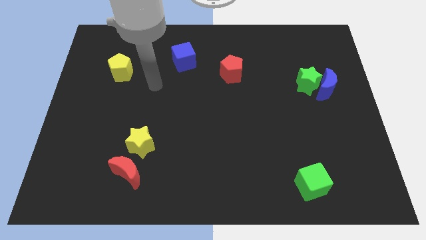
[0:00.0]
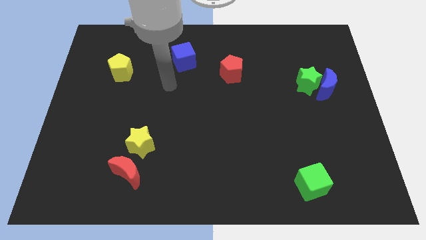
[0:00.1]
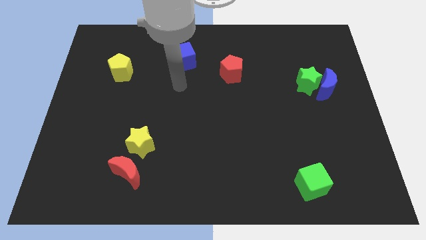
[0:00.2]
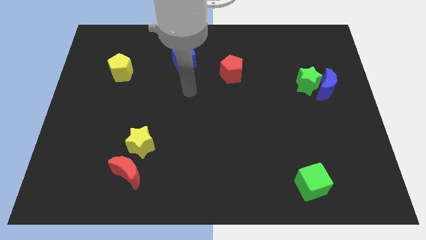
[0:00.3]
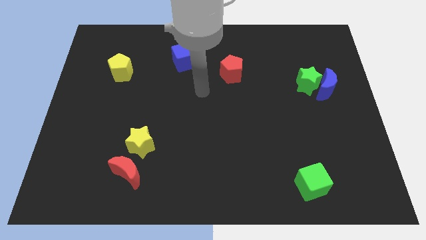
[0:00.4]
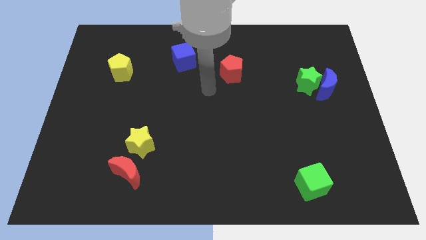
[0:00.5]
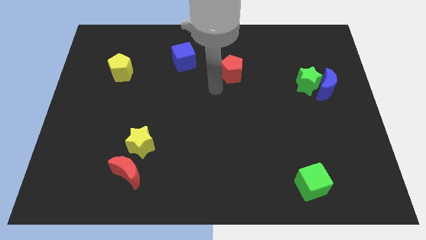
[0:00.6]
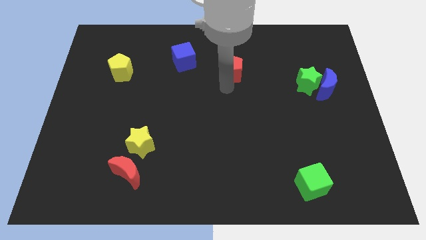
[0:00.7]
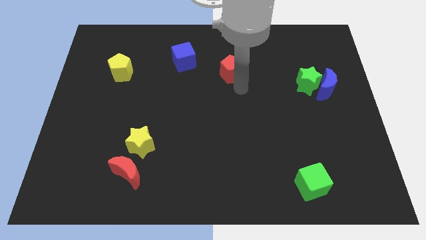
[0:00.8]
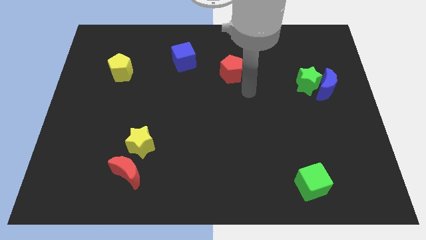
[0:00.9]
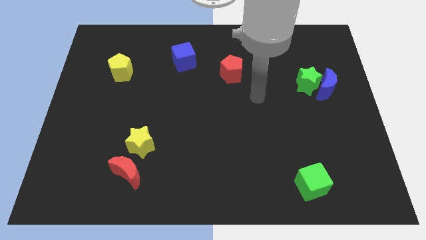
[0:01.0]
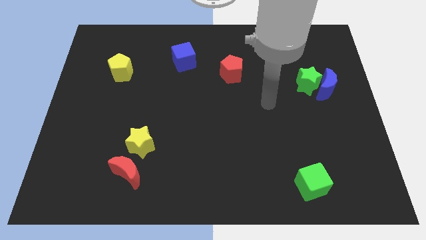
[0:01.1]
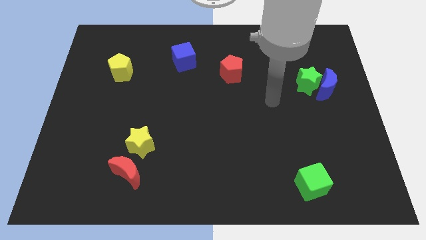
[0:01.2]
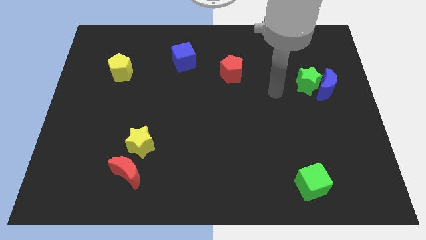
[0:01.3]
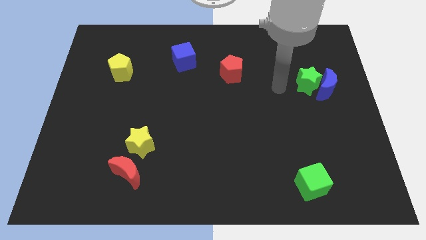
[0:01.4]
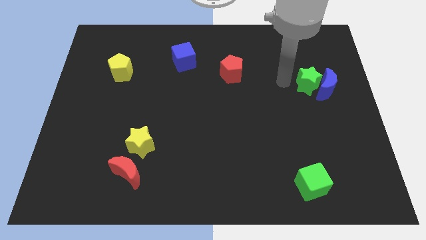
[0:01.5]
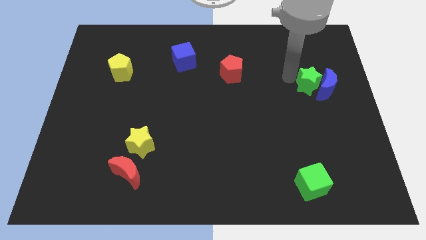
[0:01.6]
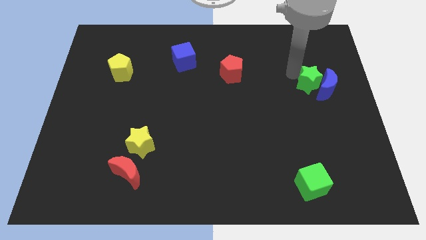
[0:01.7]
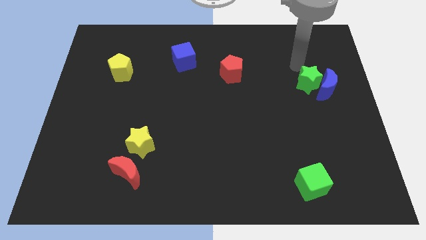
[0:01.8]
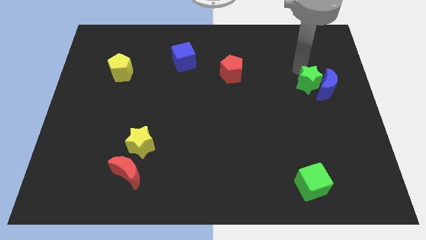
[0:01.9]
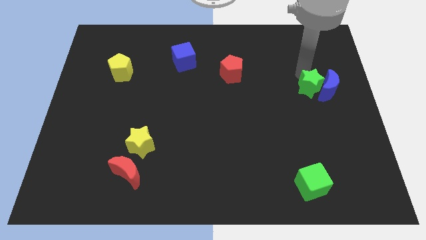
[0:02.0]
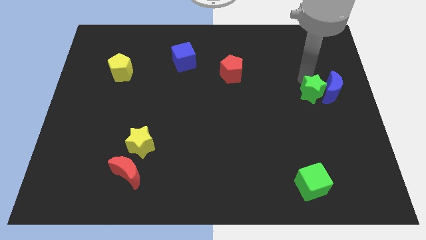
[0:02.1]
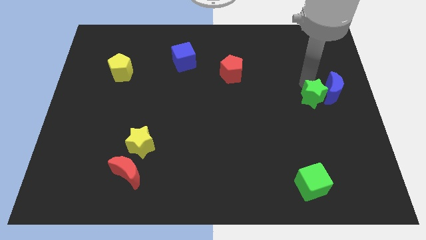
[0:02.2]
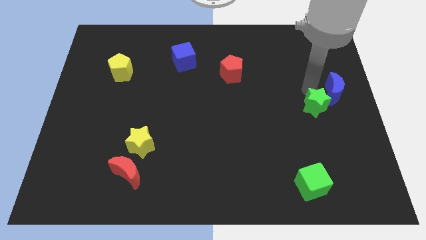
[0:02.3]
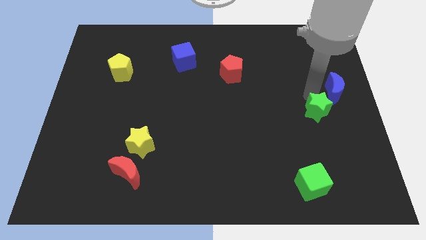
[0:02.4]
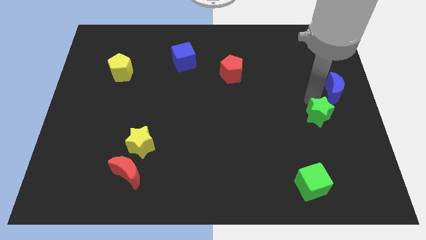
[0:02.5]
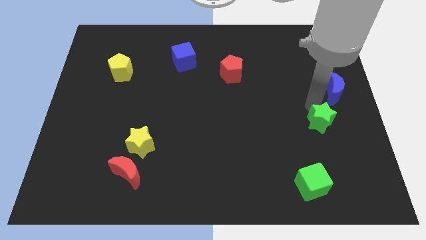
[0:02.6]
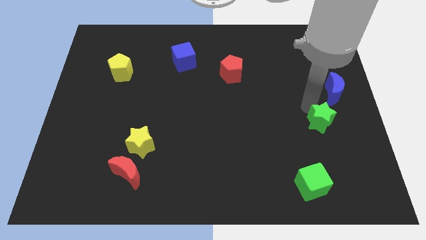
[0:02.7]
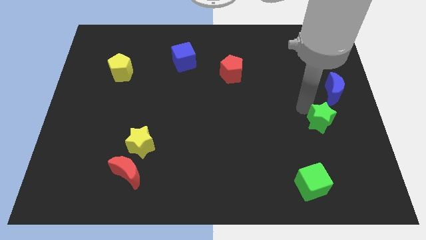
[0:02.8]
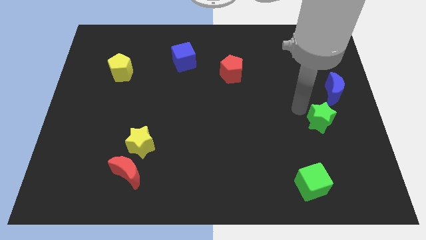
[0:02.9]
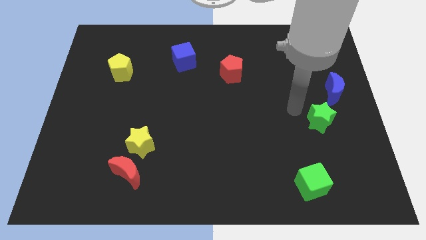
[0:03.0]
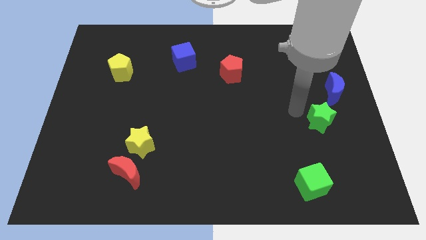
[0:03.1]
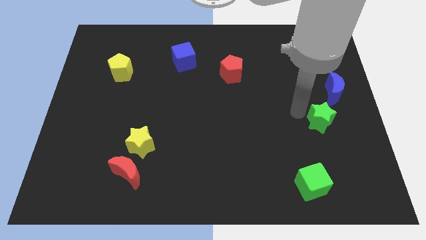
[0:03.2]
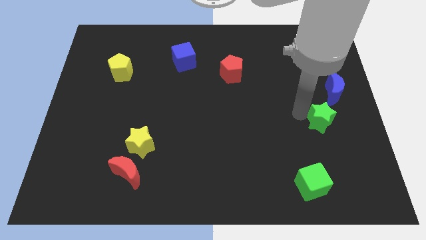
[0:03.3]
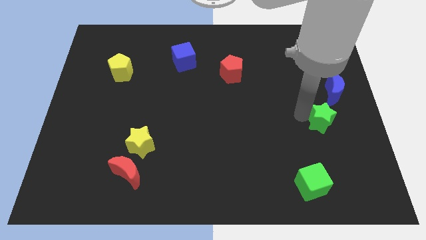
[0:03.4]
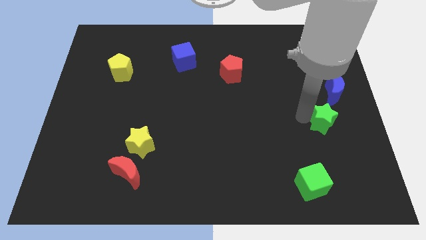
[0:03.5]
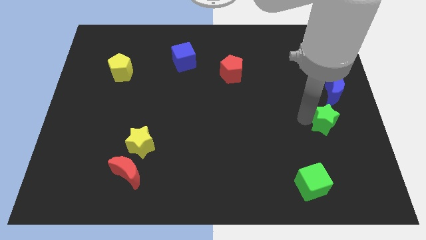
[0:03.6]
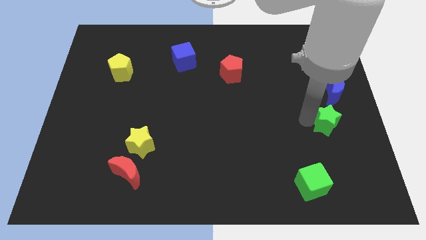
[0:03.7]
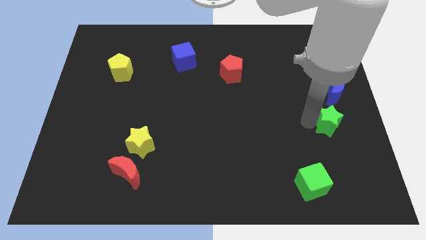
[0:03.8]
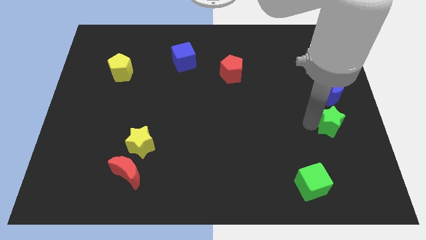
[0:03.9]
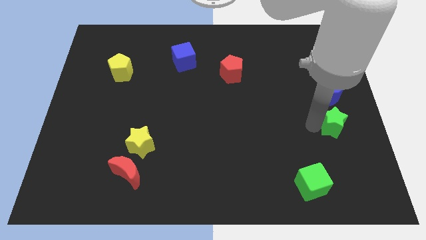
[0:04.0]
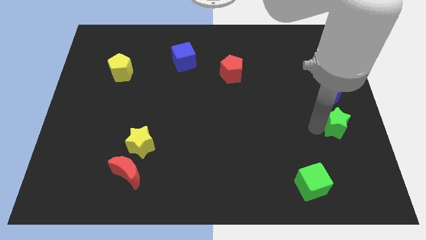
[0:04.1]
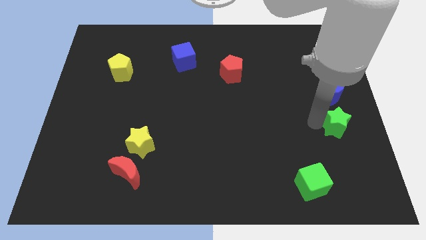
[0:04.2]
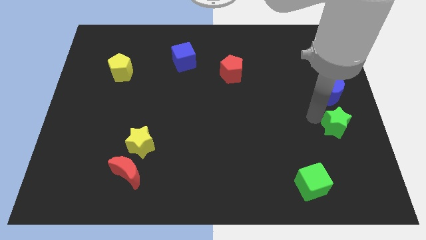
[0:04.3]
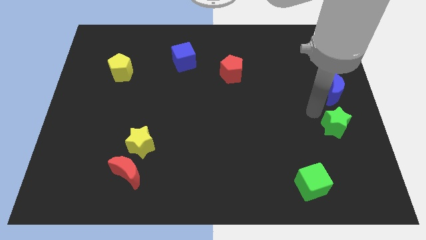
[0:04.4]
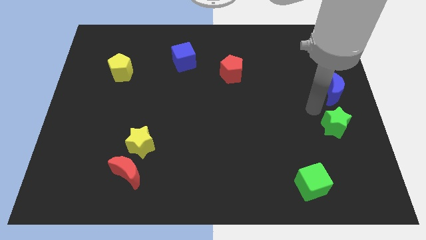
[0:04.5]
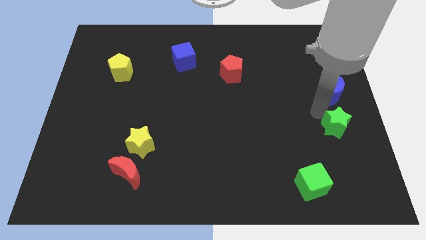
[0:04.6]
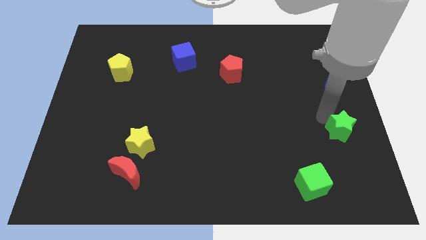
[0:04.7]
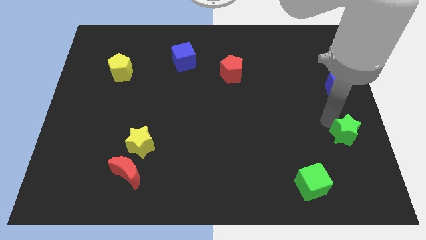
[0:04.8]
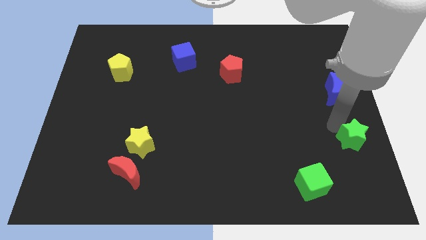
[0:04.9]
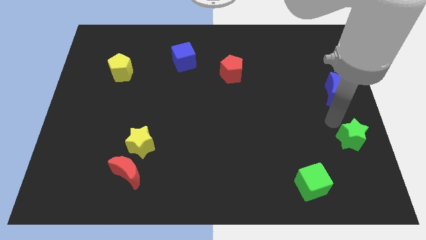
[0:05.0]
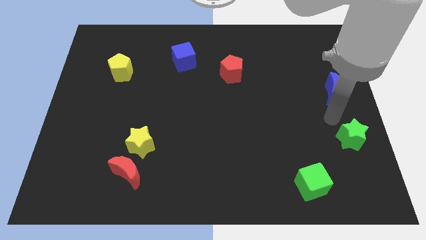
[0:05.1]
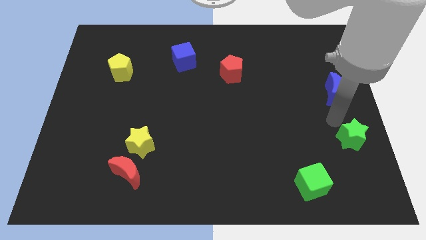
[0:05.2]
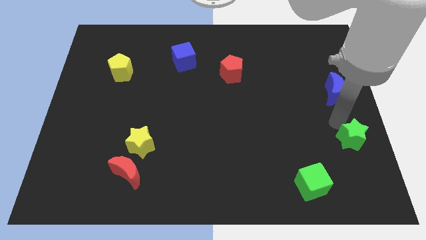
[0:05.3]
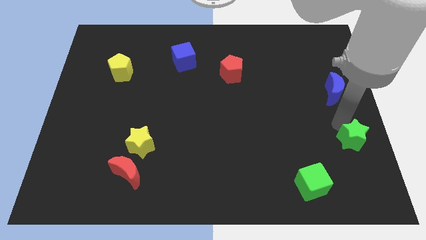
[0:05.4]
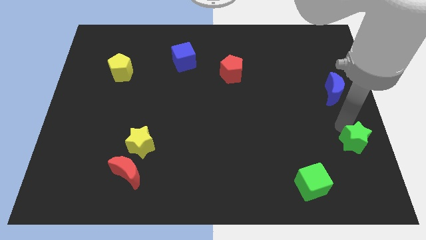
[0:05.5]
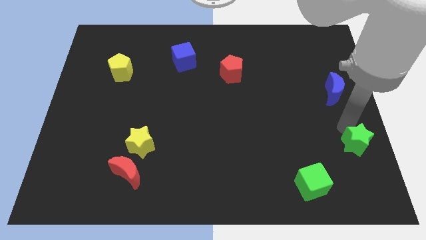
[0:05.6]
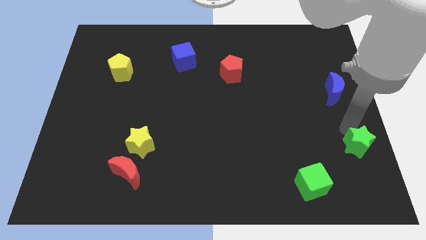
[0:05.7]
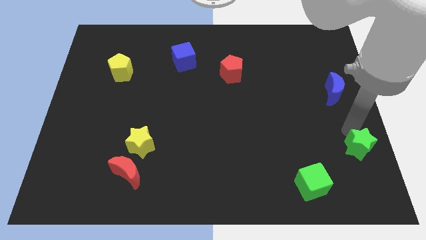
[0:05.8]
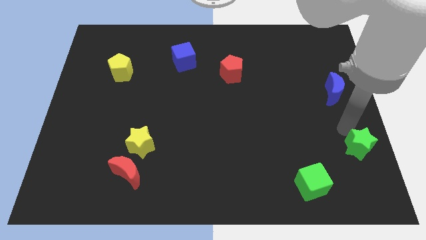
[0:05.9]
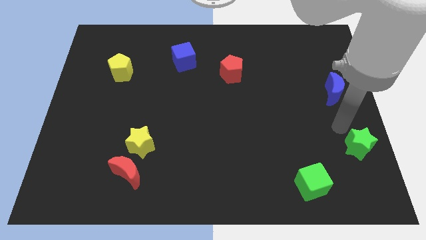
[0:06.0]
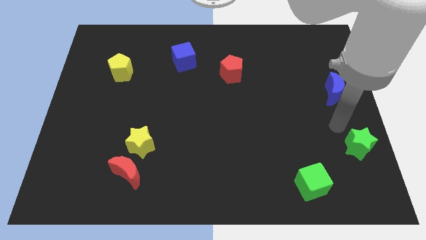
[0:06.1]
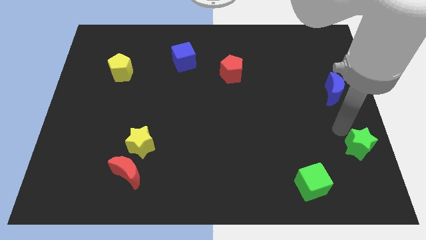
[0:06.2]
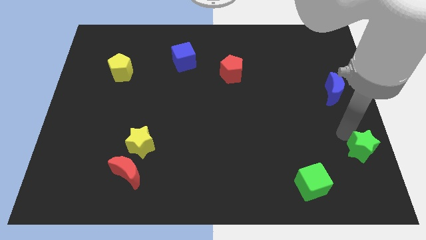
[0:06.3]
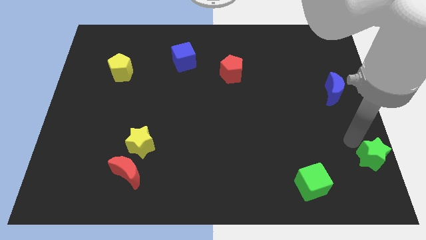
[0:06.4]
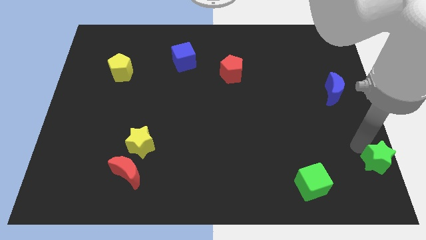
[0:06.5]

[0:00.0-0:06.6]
slide the green star to the bottom right corner
